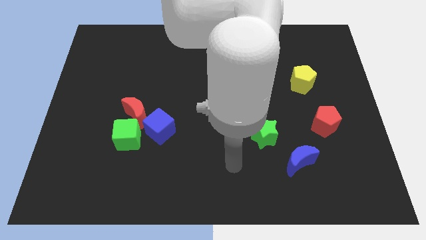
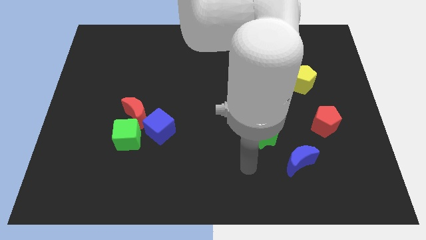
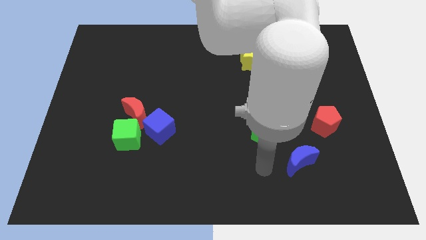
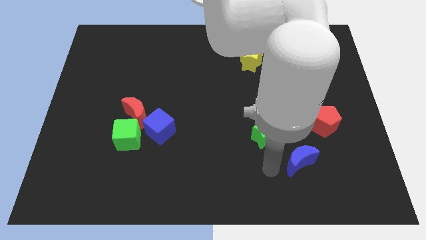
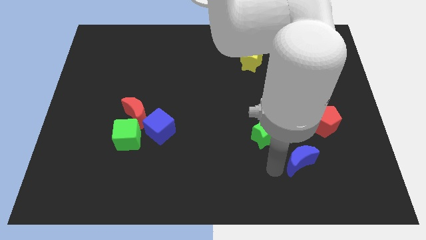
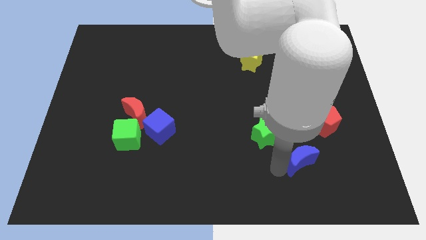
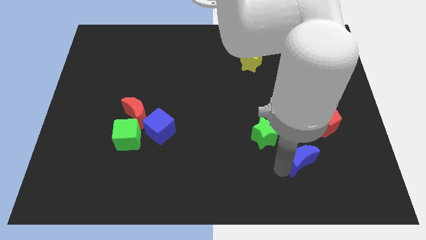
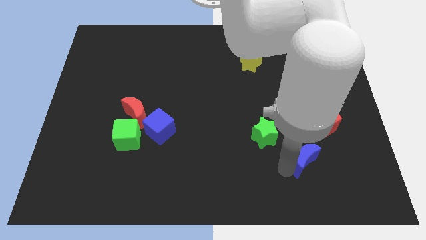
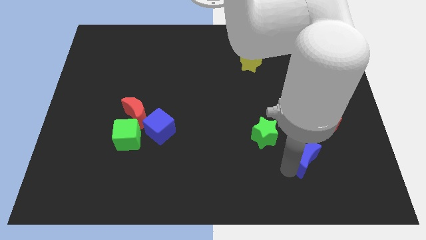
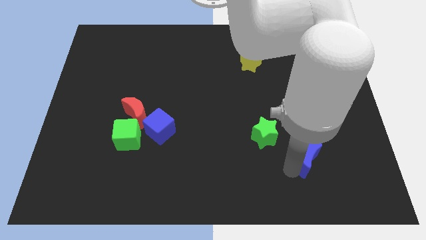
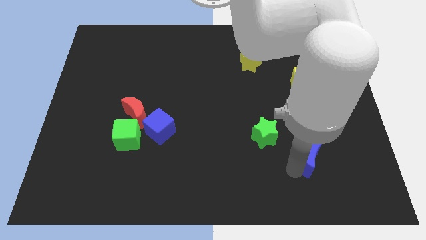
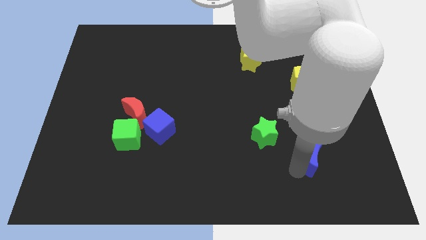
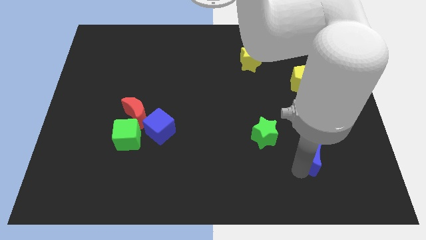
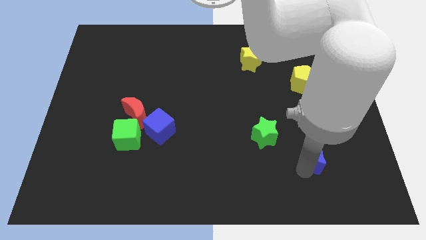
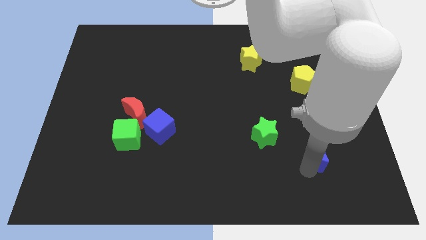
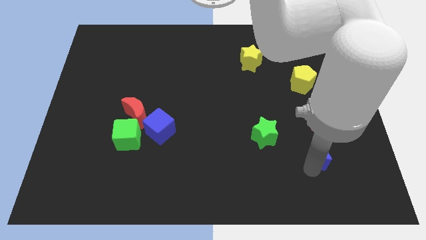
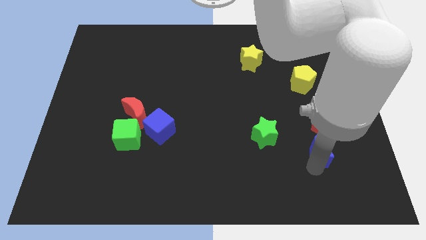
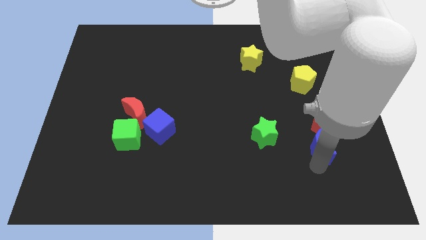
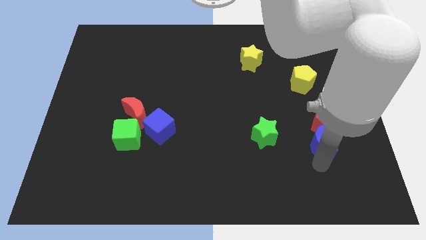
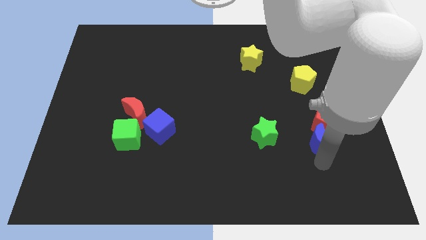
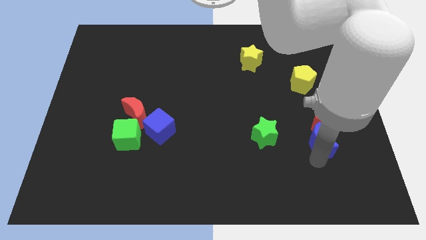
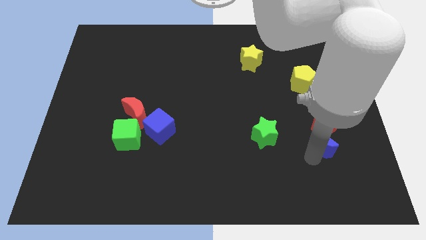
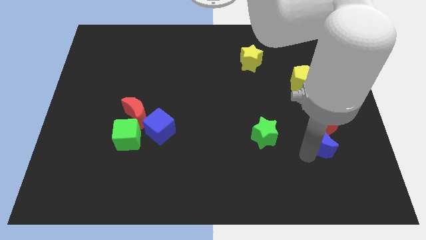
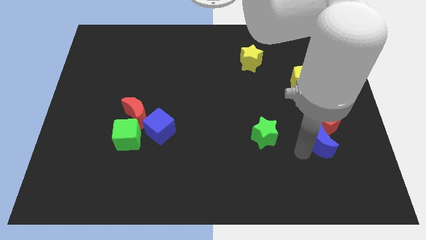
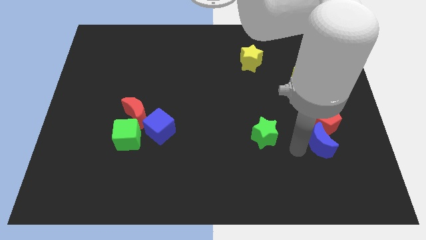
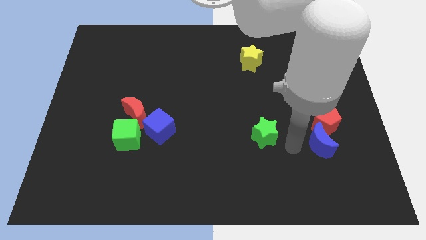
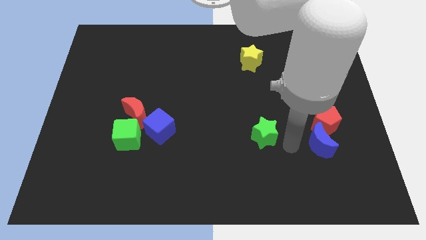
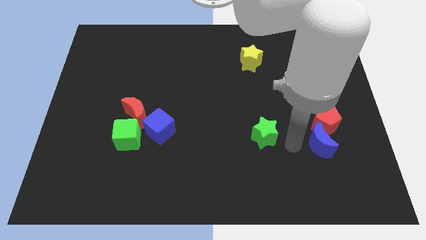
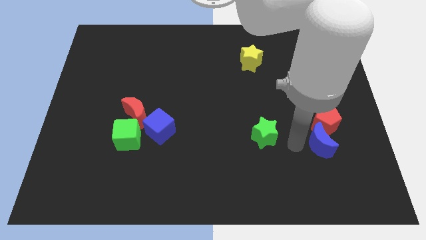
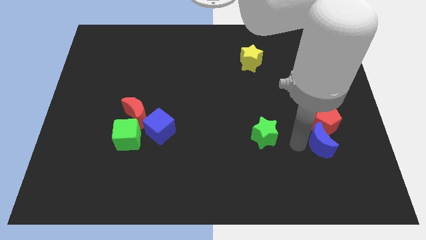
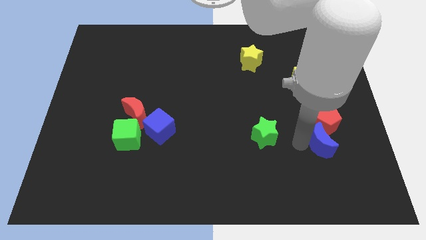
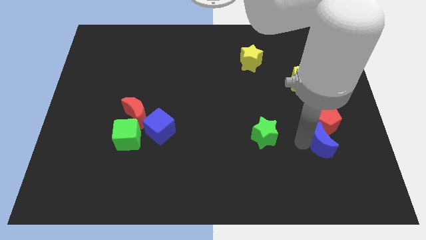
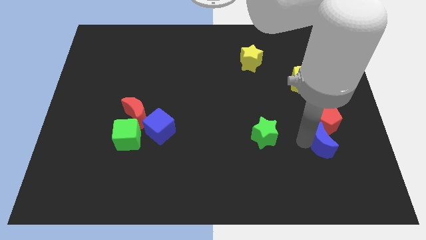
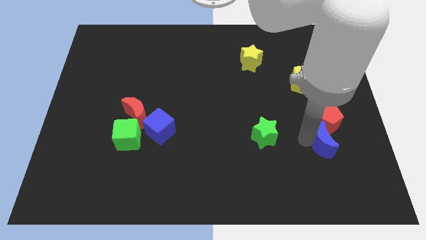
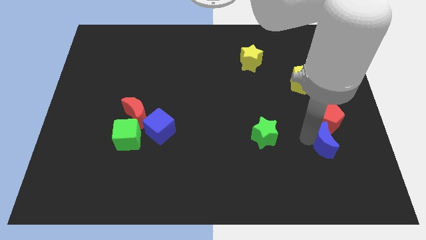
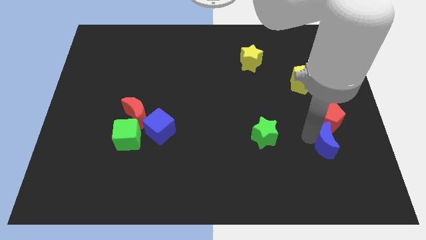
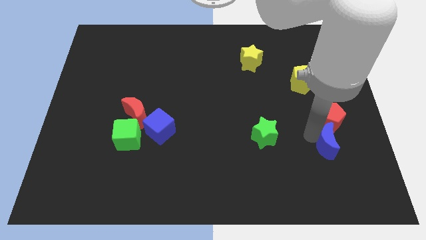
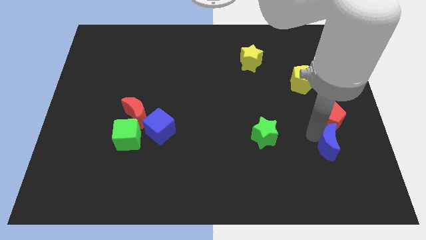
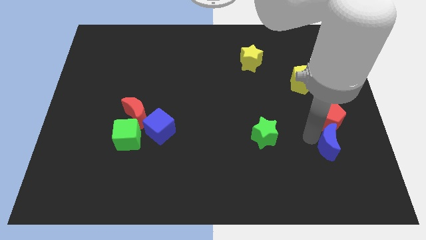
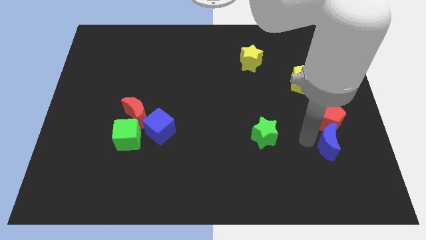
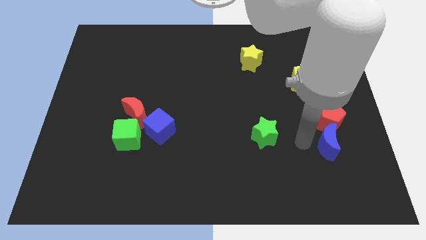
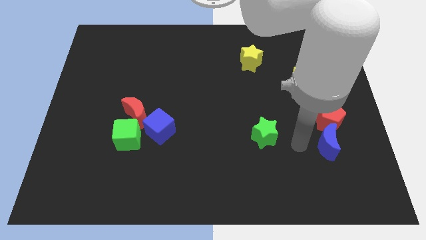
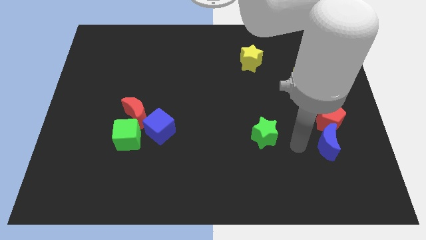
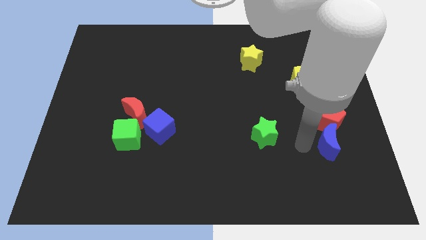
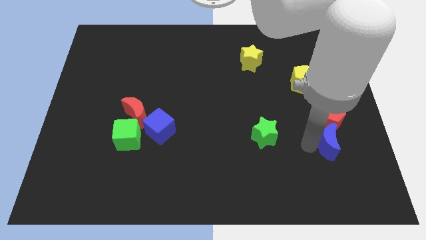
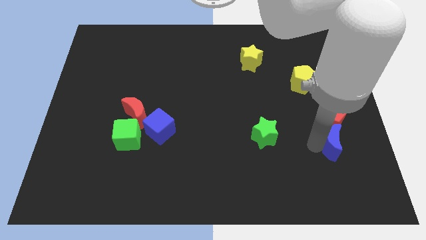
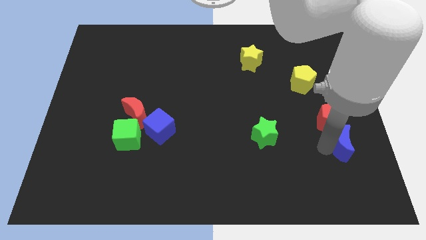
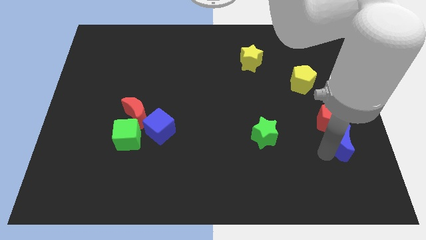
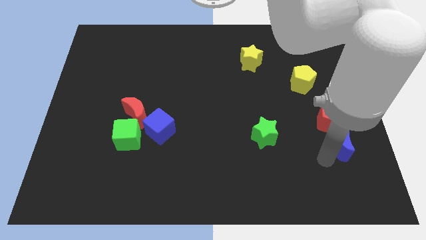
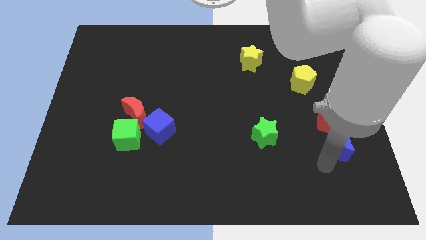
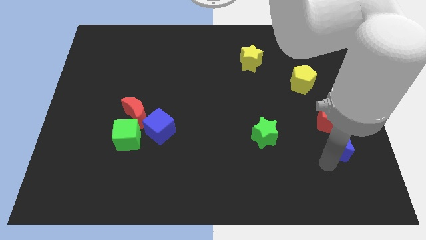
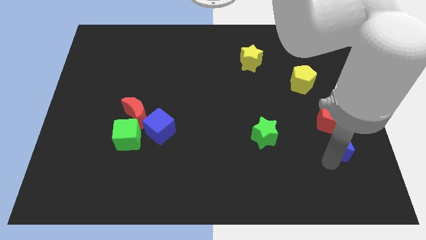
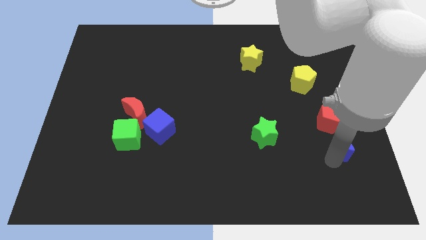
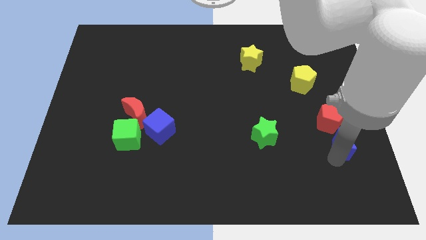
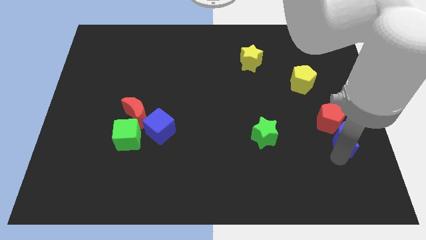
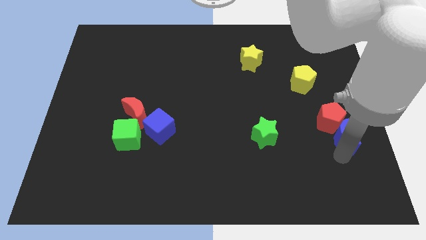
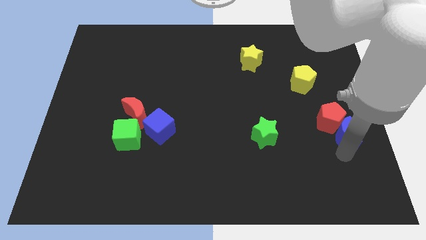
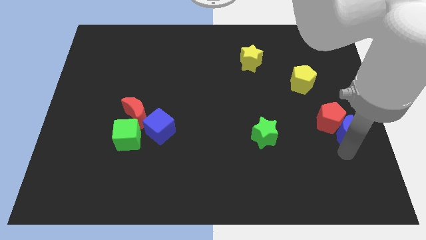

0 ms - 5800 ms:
put the blue moon to the right side of the board
